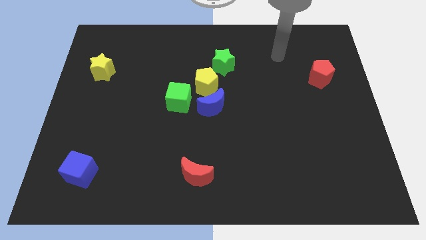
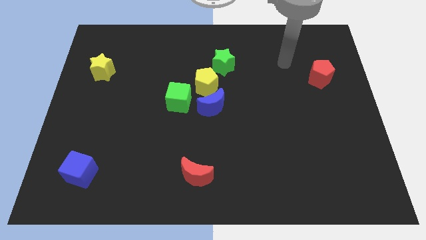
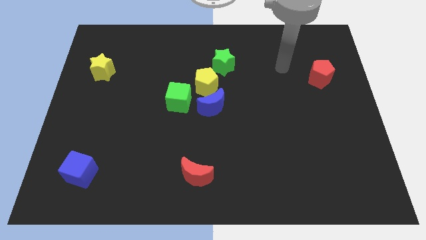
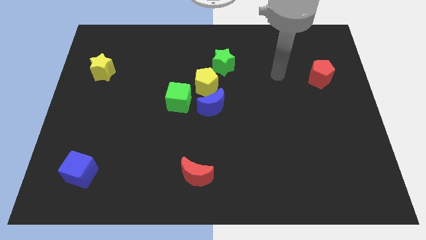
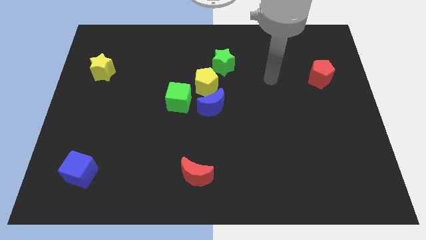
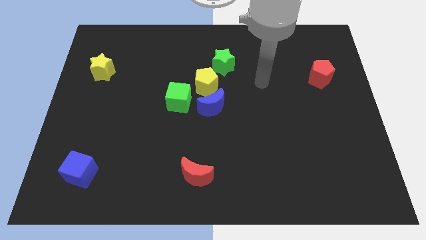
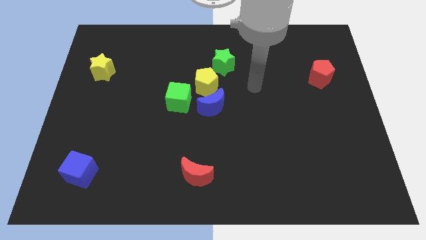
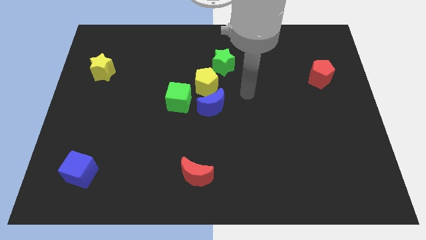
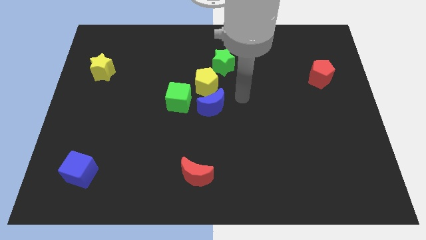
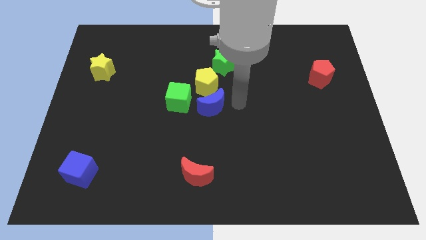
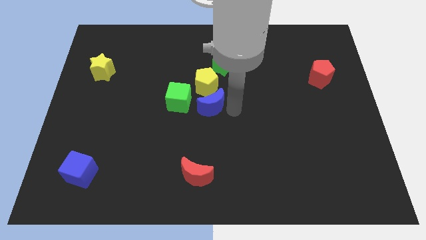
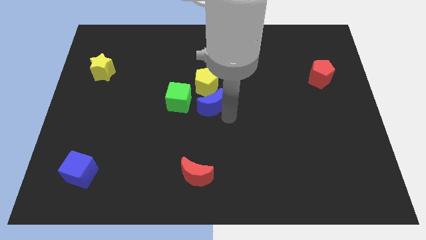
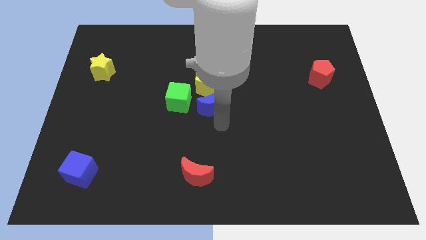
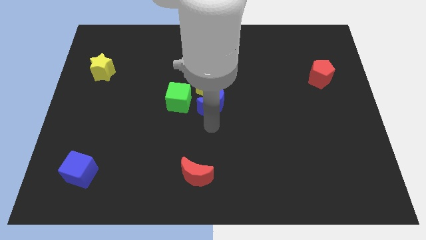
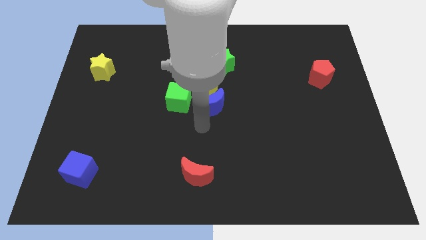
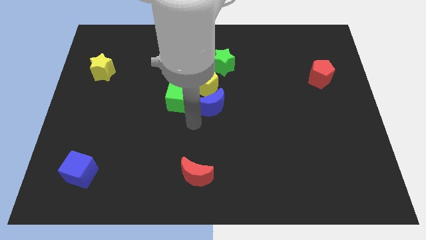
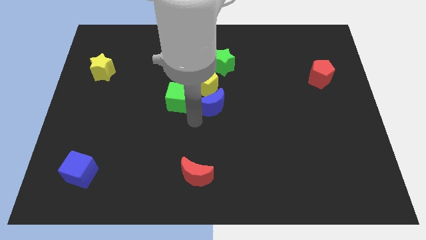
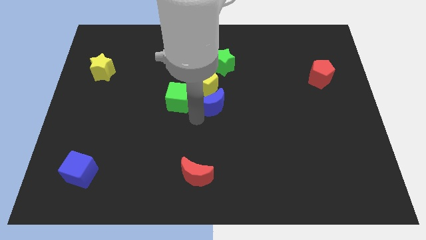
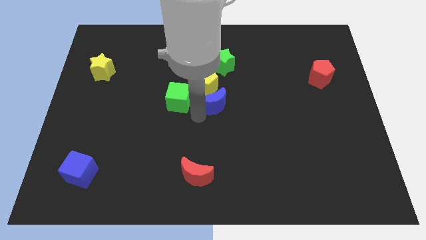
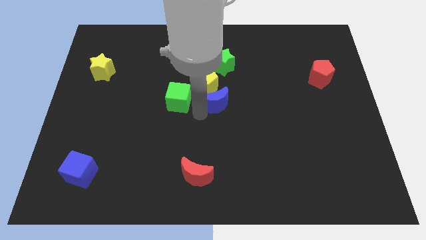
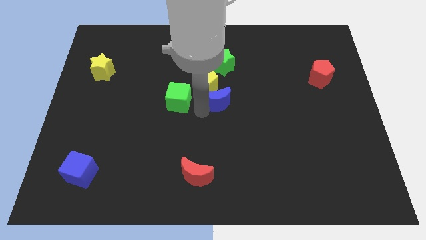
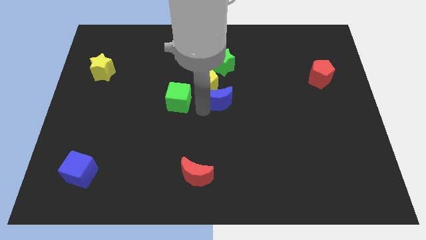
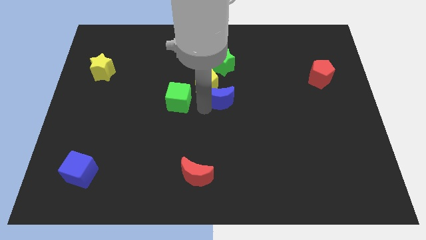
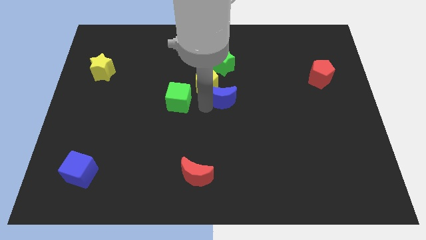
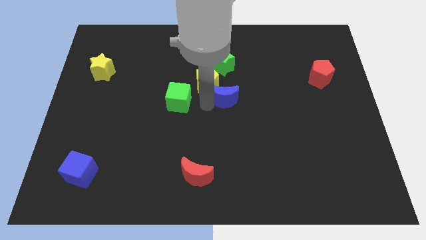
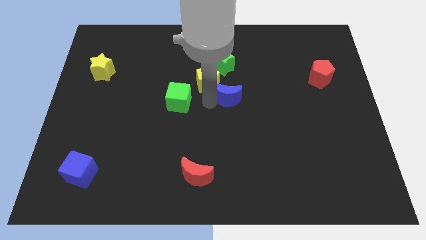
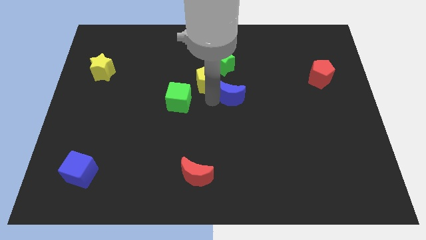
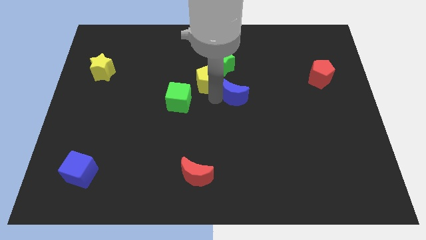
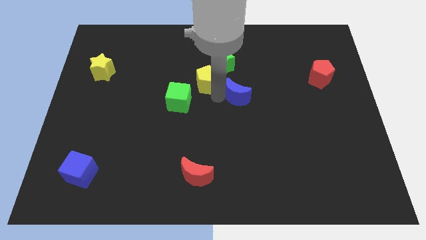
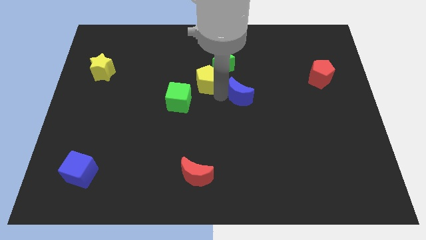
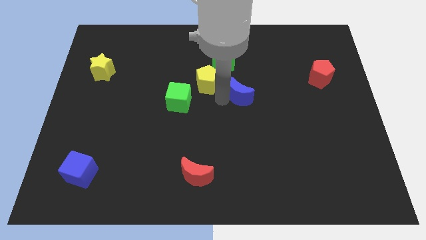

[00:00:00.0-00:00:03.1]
slide the blue moon a little diagonally upwards and right

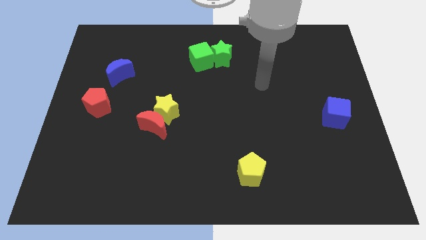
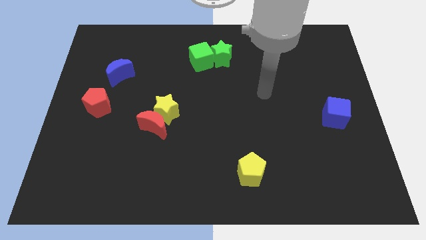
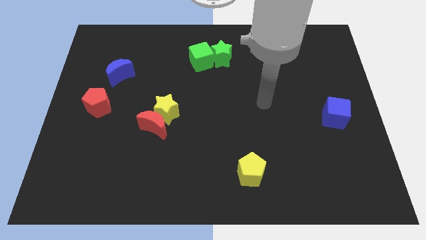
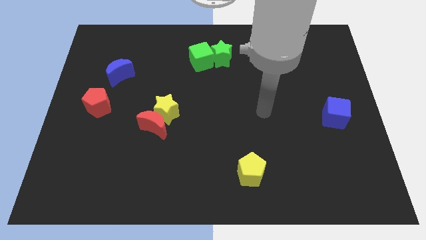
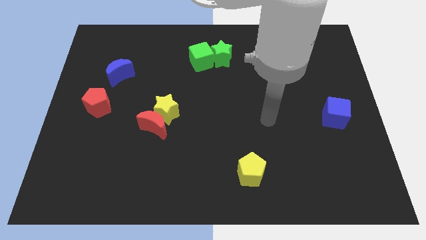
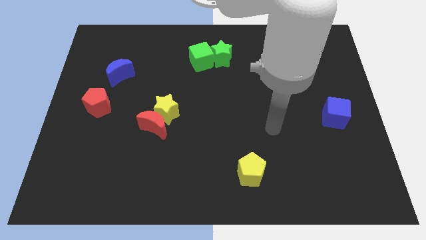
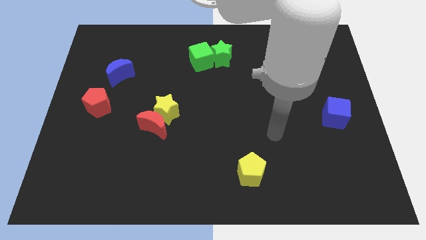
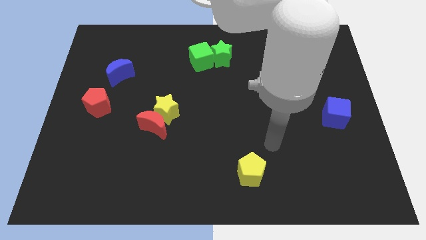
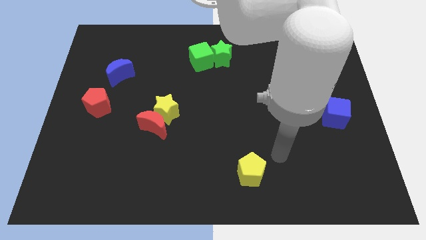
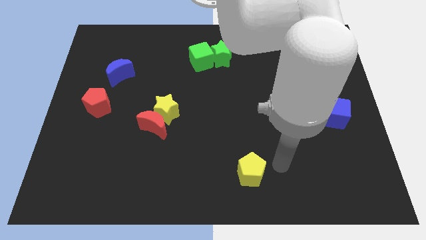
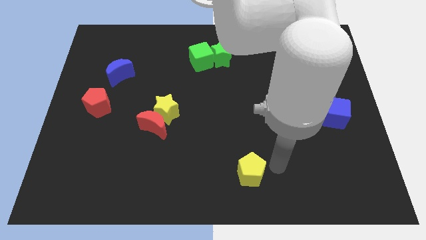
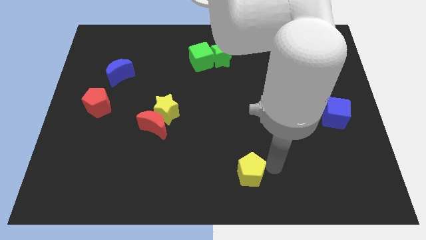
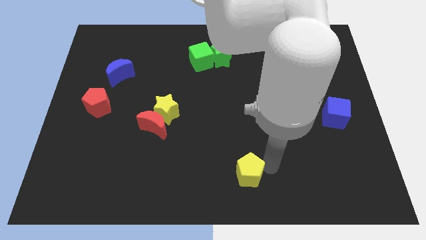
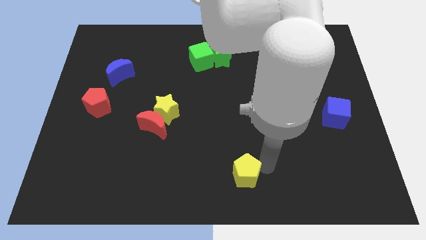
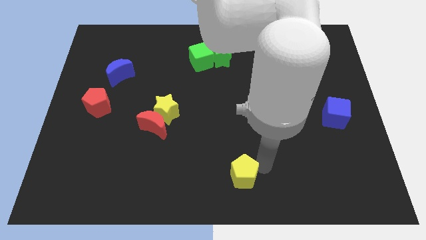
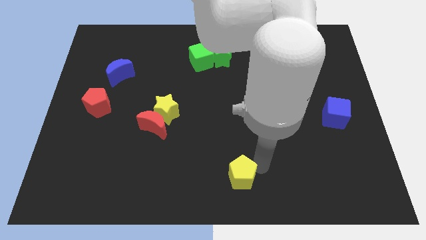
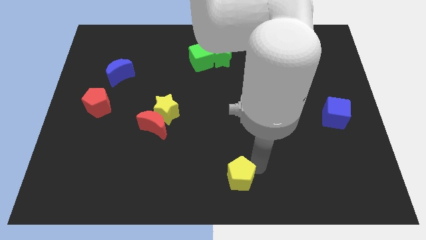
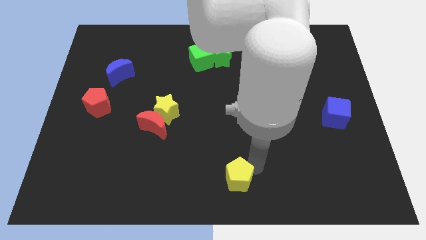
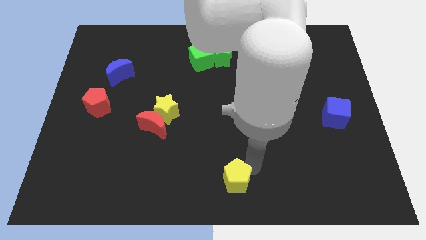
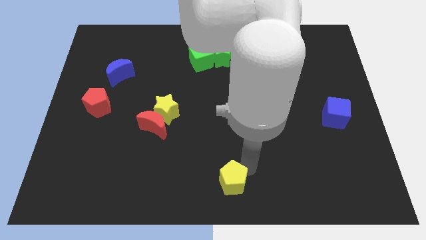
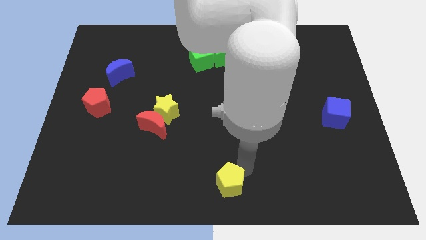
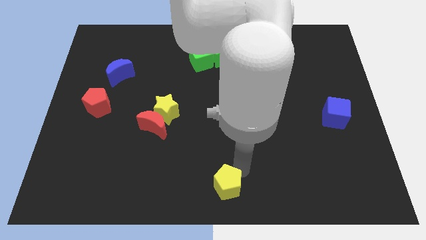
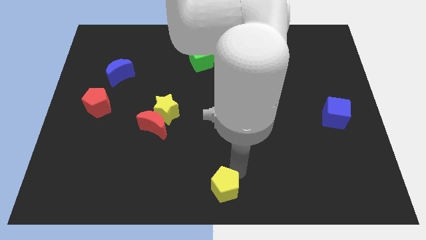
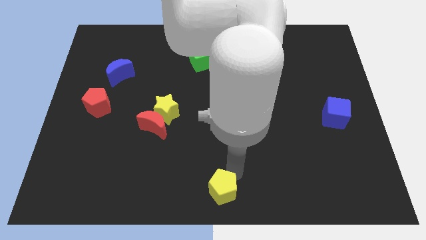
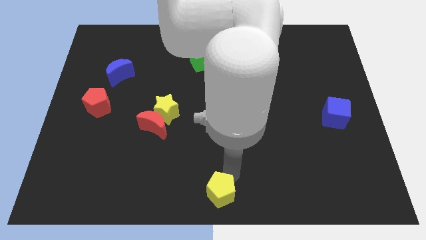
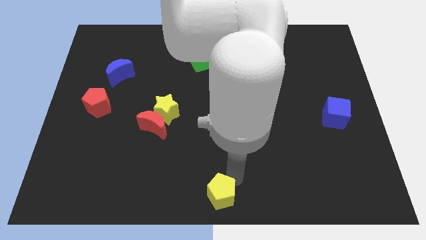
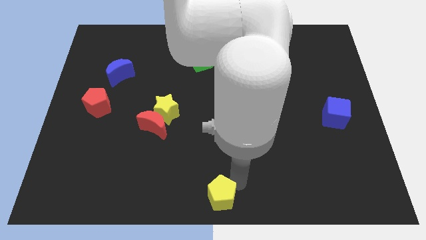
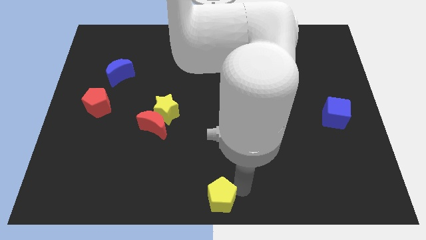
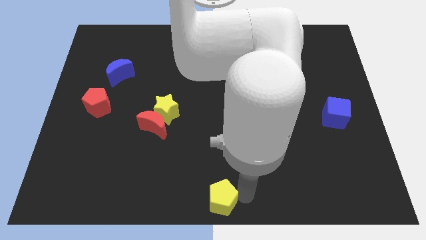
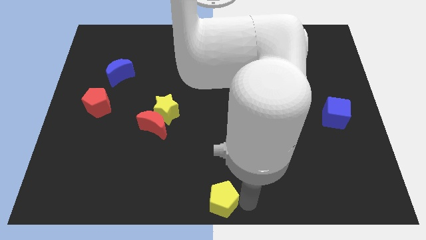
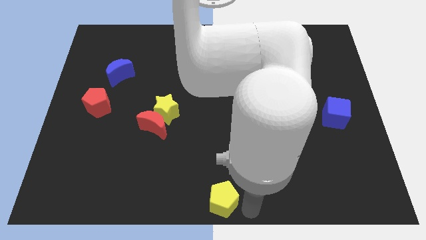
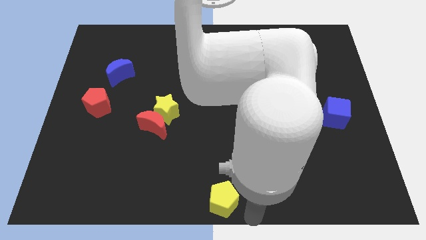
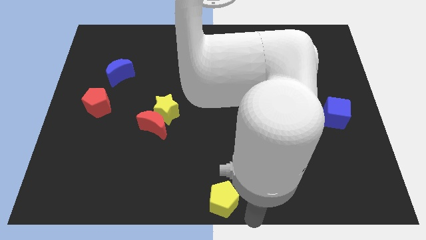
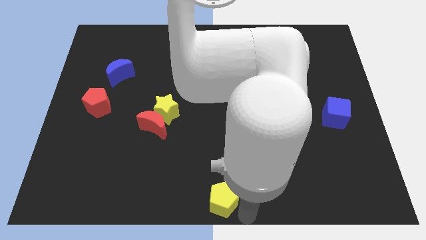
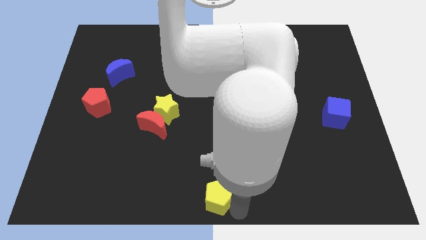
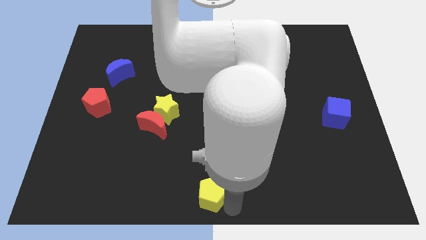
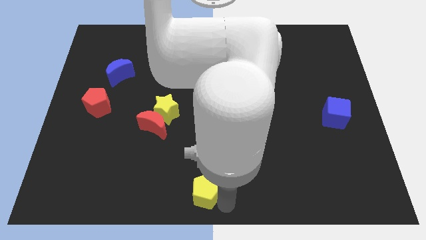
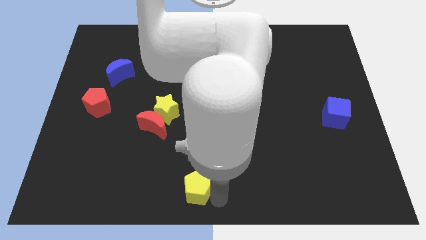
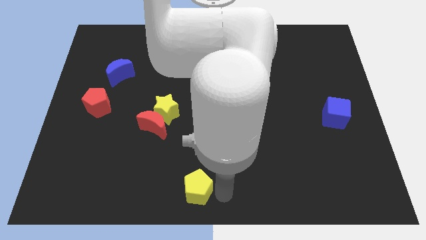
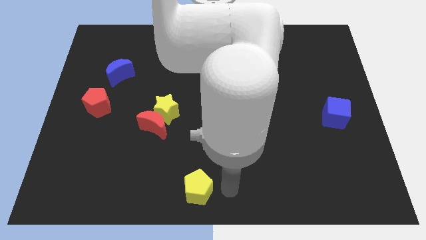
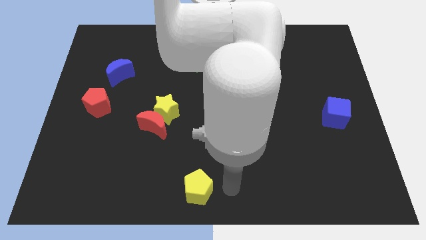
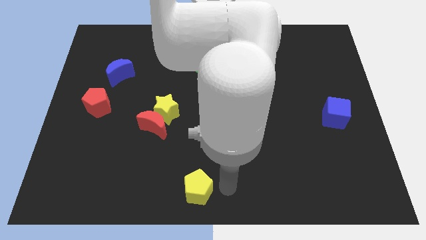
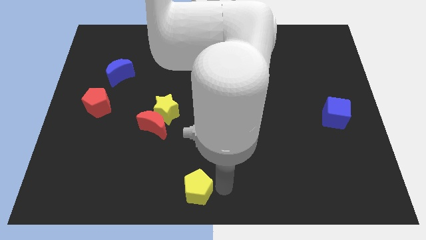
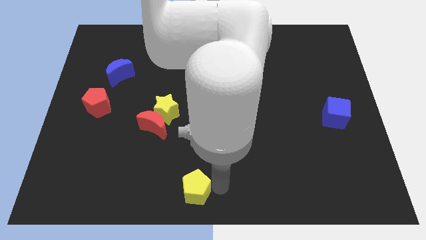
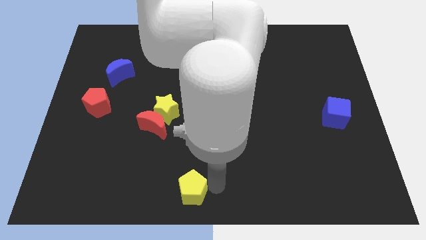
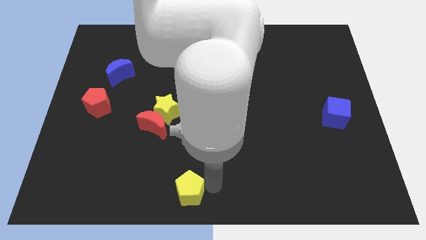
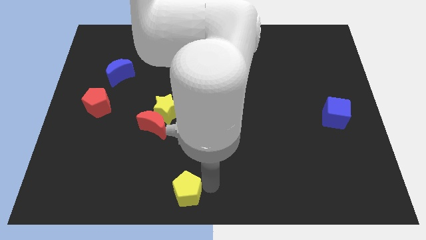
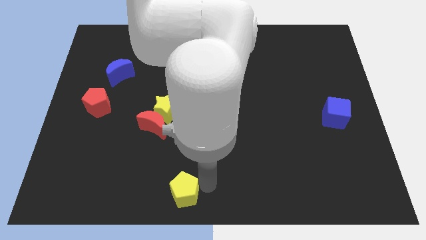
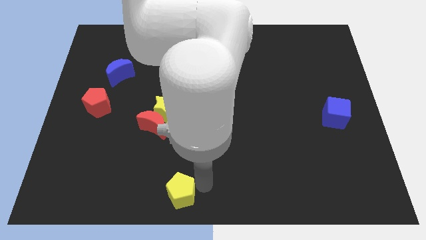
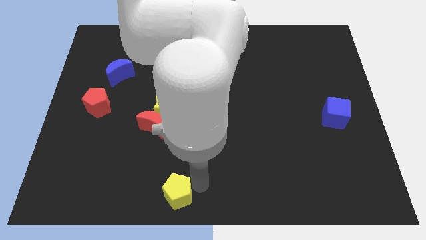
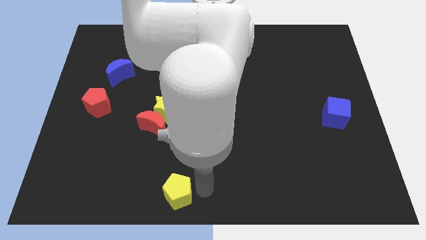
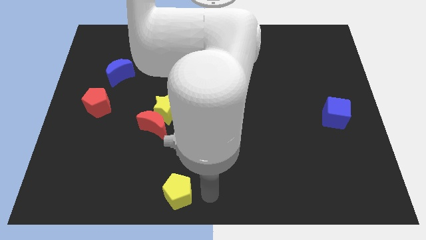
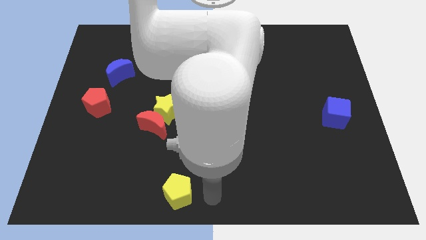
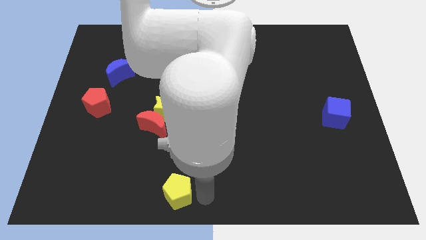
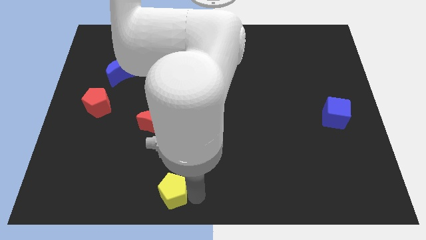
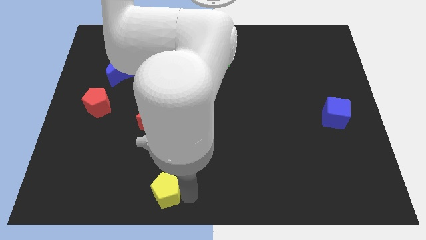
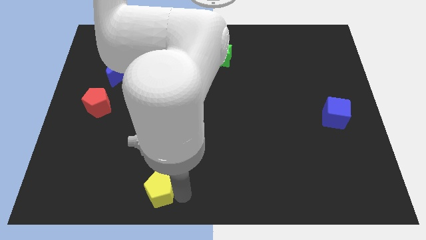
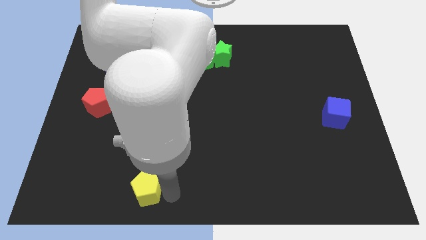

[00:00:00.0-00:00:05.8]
push the yellow pentagon to the left
